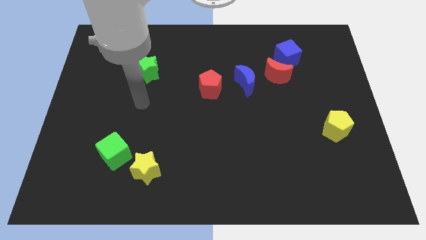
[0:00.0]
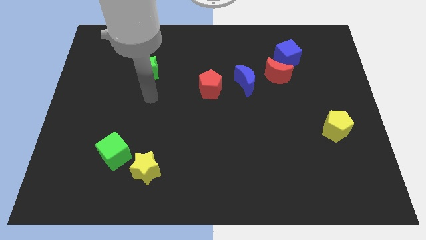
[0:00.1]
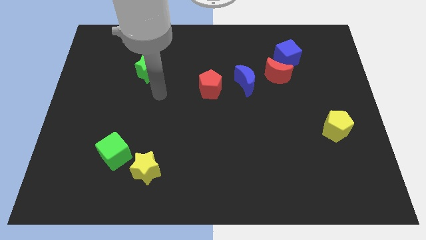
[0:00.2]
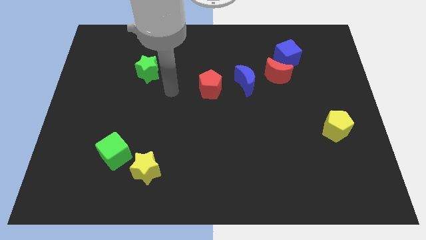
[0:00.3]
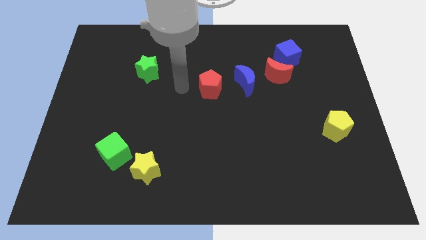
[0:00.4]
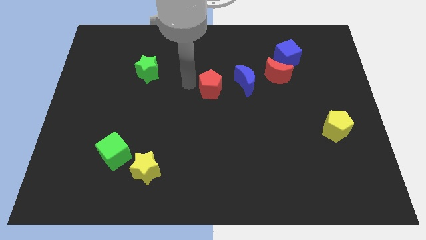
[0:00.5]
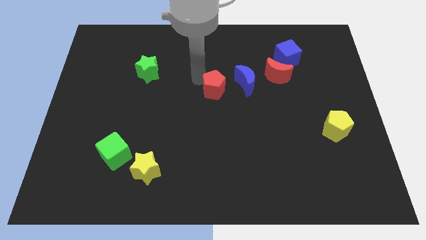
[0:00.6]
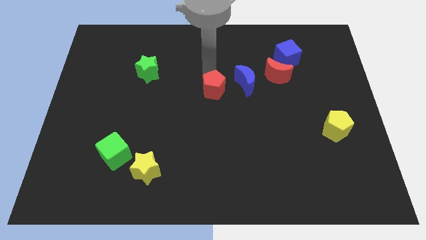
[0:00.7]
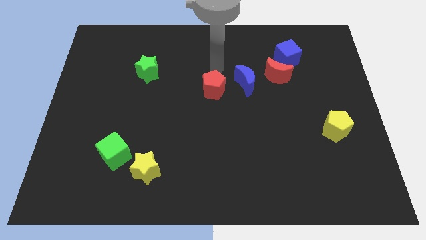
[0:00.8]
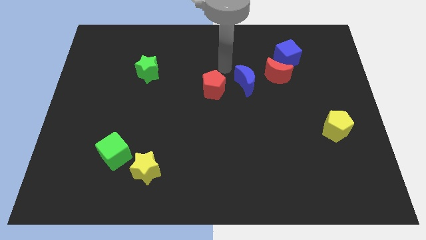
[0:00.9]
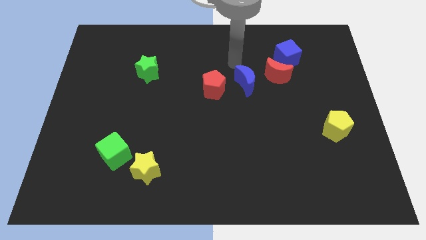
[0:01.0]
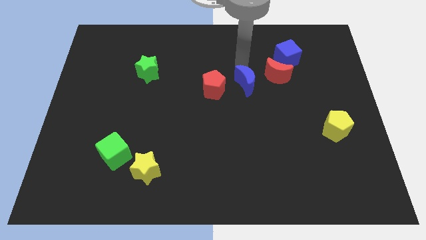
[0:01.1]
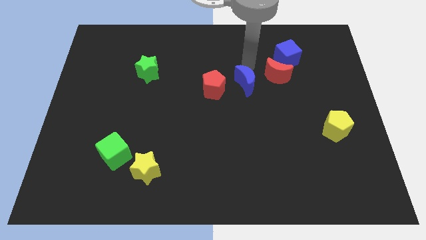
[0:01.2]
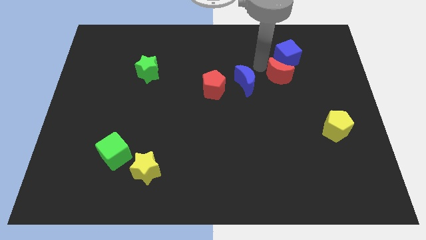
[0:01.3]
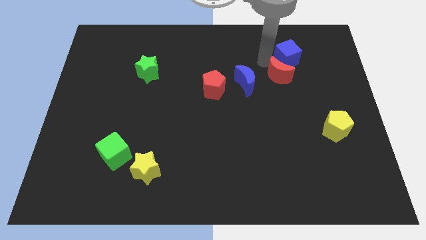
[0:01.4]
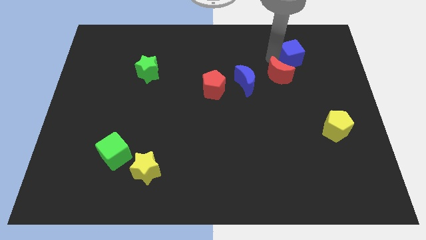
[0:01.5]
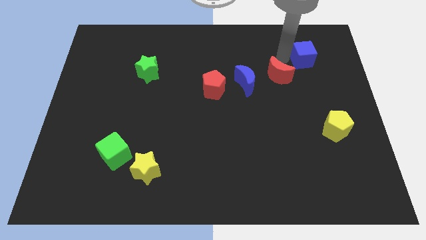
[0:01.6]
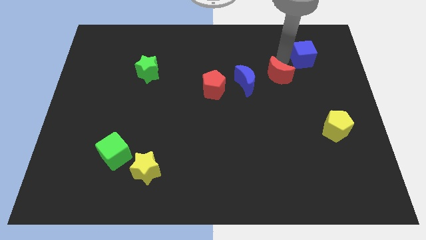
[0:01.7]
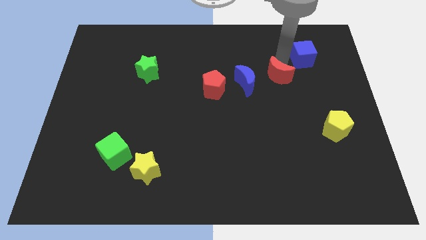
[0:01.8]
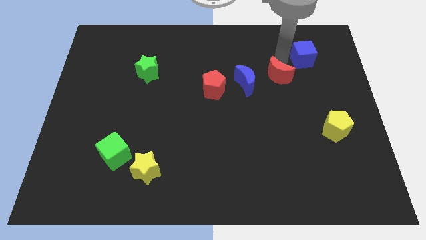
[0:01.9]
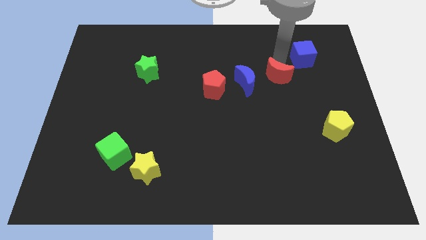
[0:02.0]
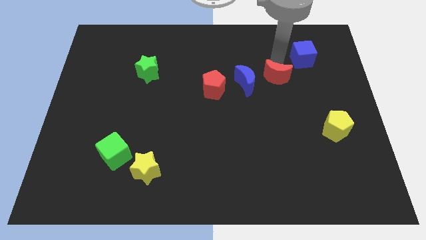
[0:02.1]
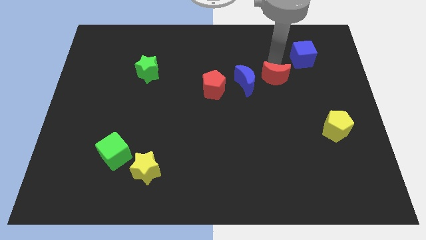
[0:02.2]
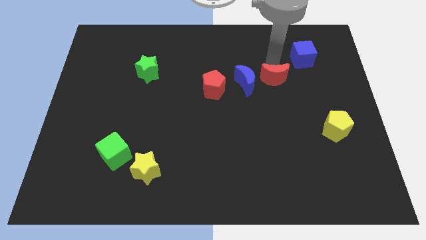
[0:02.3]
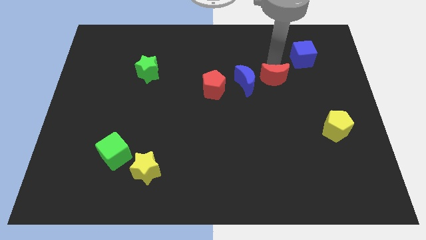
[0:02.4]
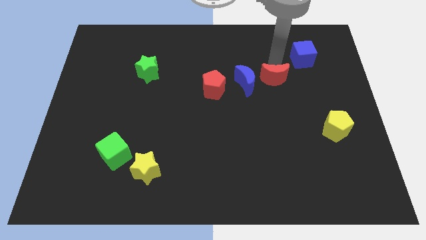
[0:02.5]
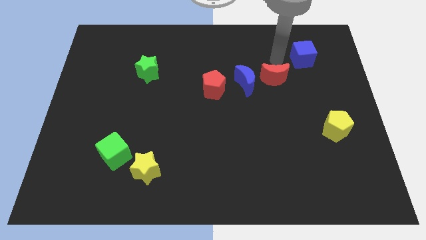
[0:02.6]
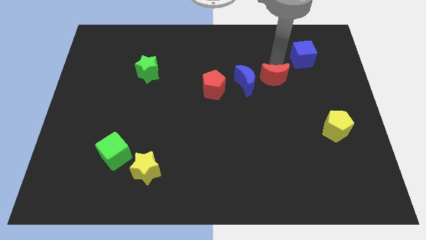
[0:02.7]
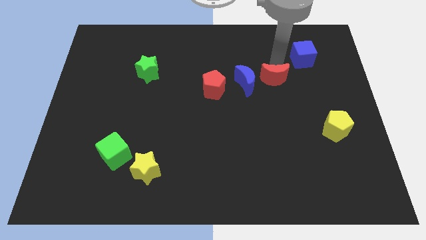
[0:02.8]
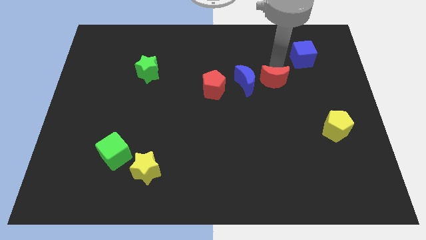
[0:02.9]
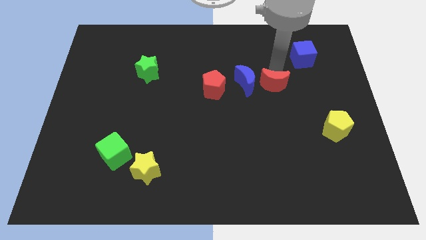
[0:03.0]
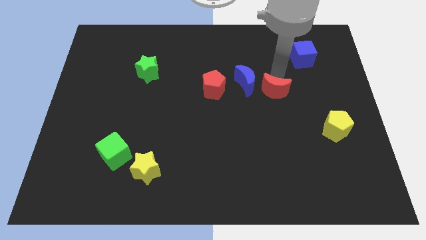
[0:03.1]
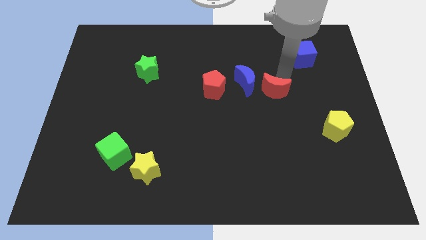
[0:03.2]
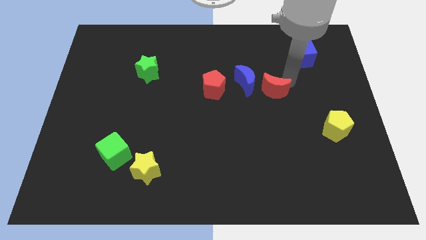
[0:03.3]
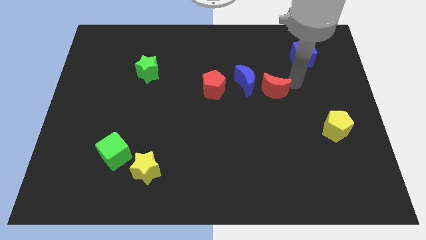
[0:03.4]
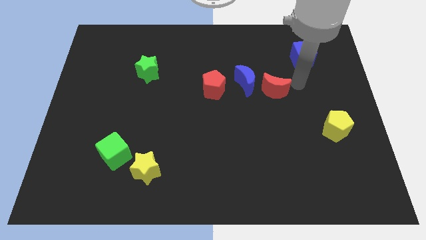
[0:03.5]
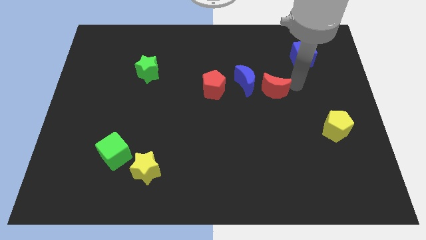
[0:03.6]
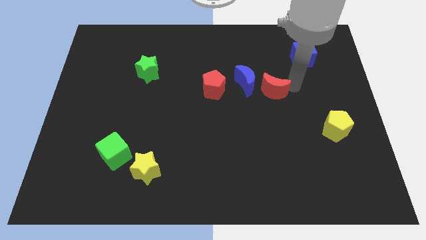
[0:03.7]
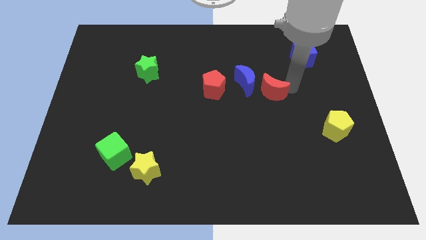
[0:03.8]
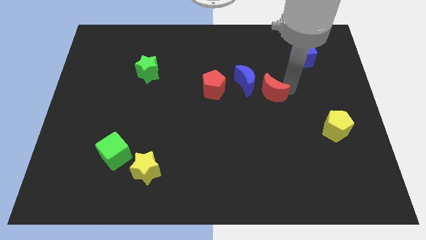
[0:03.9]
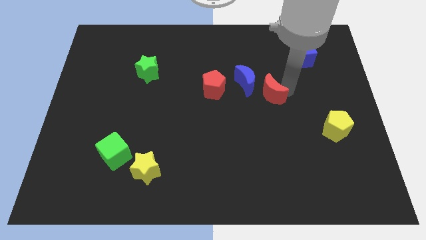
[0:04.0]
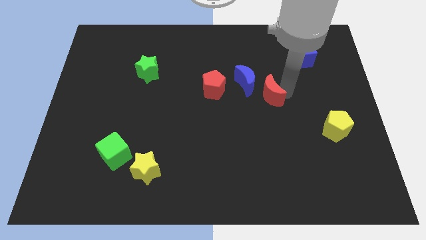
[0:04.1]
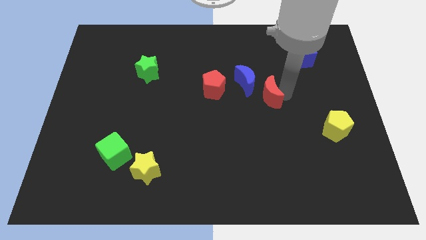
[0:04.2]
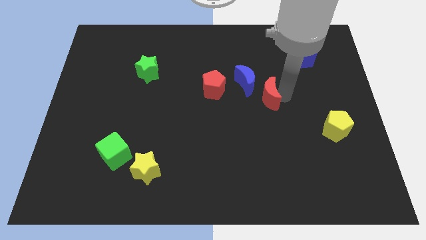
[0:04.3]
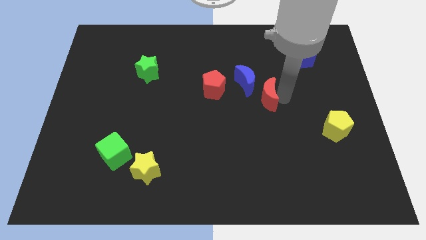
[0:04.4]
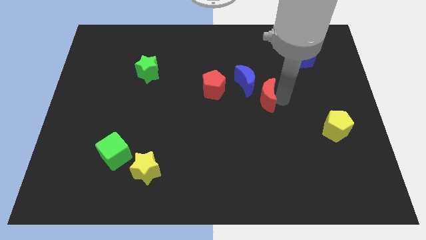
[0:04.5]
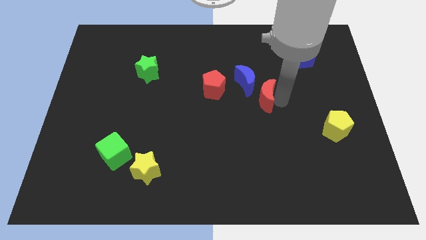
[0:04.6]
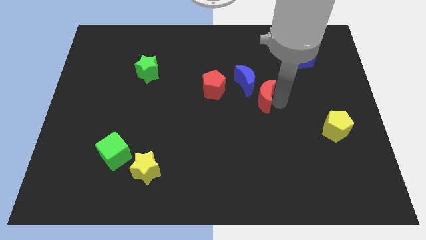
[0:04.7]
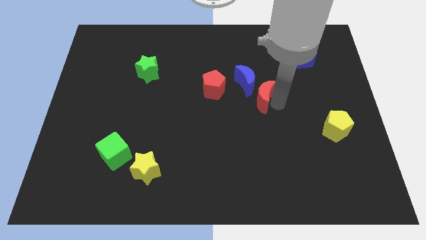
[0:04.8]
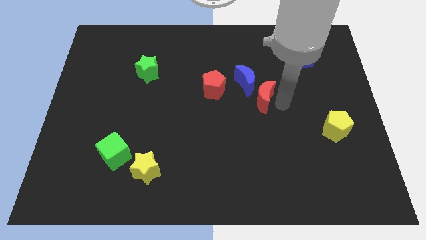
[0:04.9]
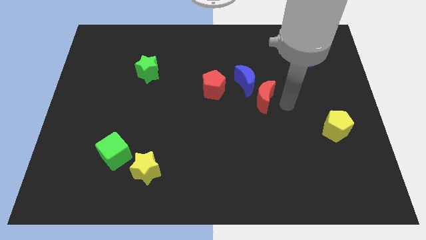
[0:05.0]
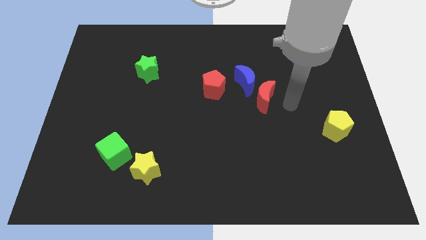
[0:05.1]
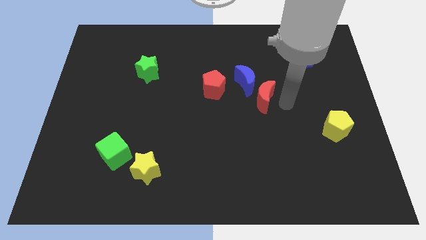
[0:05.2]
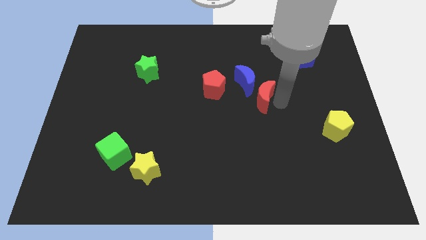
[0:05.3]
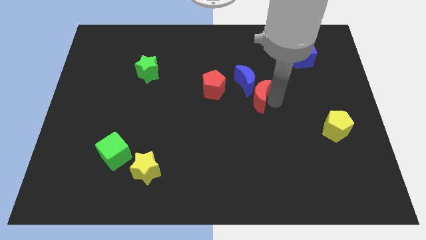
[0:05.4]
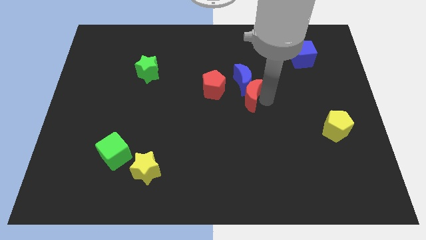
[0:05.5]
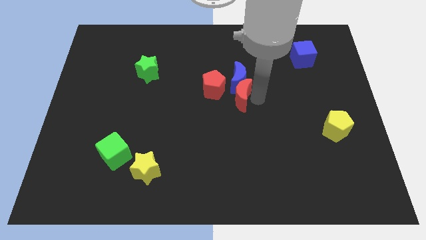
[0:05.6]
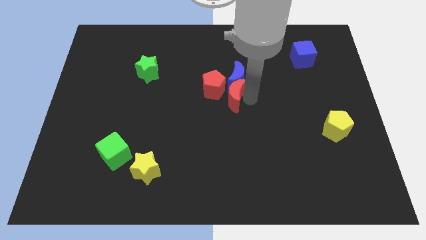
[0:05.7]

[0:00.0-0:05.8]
move the red moon to the red pentagon

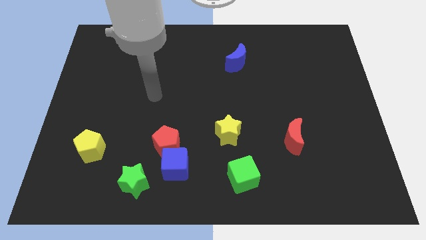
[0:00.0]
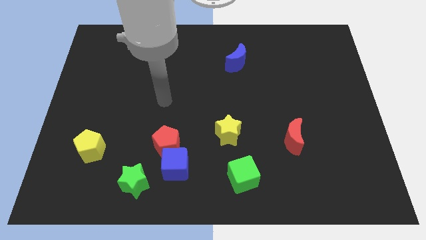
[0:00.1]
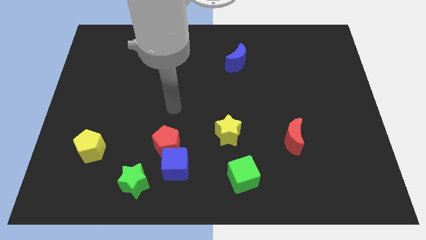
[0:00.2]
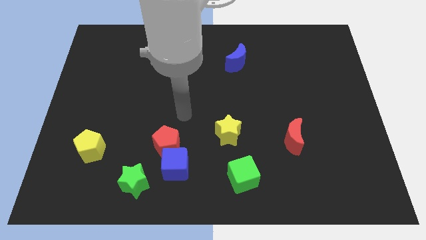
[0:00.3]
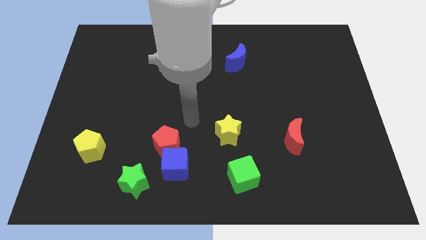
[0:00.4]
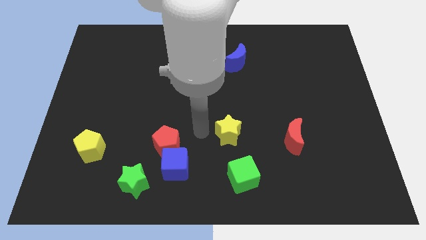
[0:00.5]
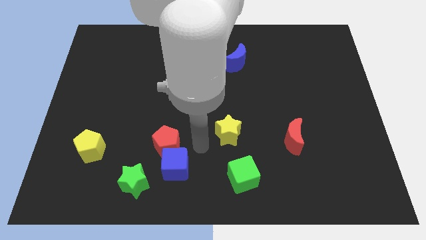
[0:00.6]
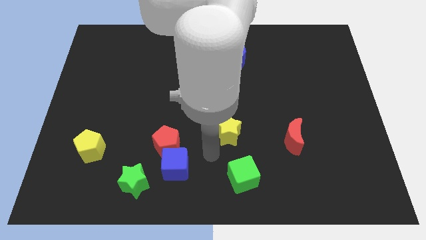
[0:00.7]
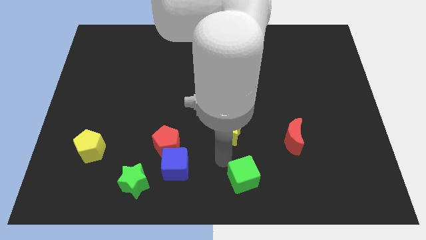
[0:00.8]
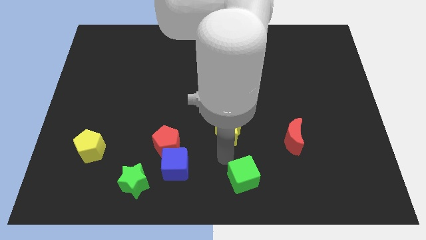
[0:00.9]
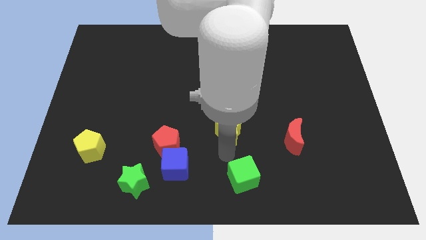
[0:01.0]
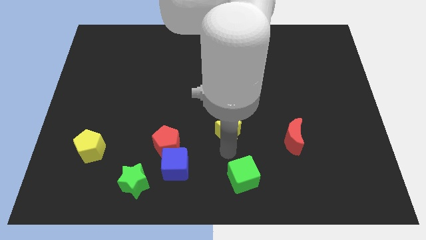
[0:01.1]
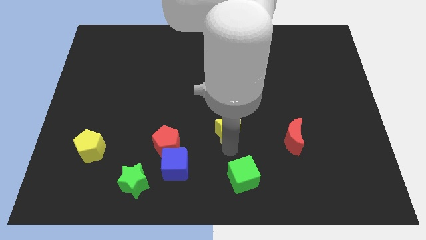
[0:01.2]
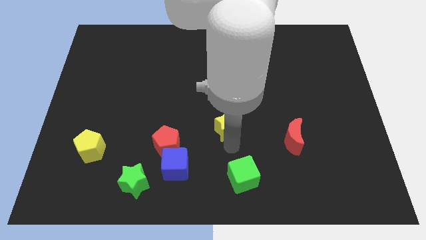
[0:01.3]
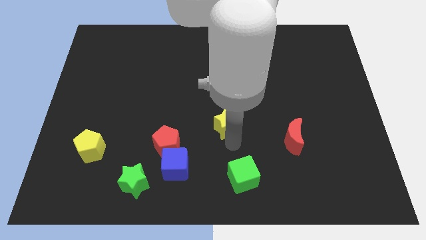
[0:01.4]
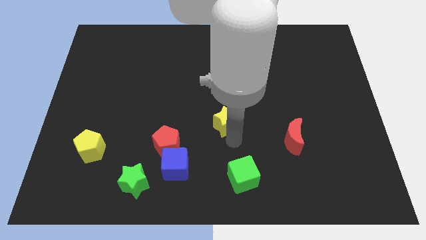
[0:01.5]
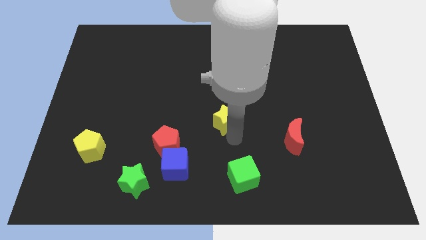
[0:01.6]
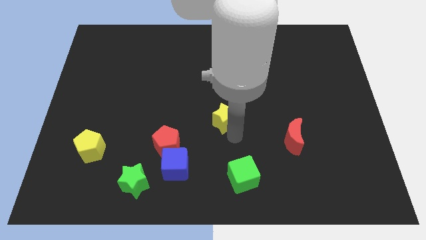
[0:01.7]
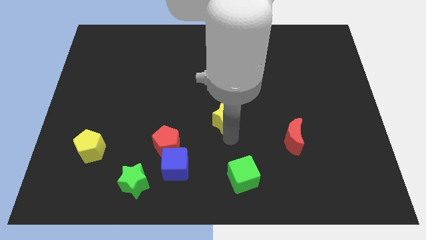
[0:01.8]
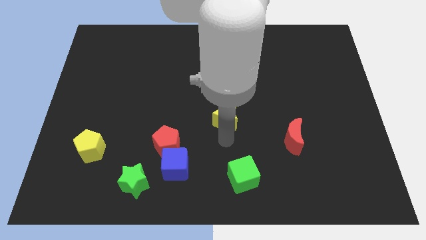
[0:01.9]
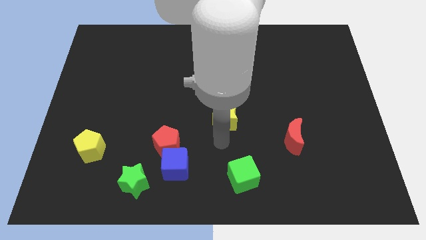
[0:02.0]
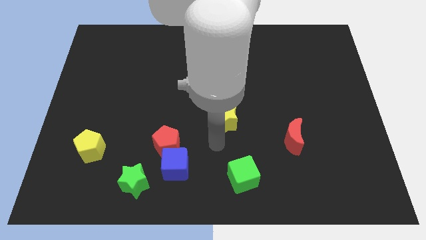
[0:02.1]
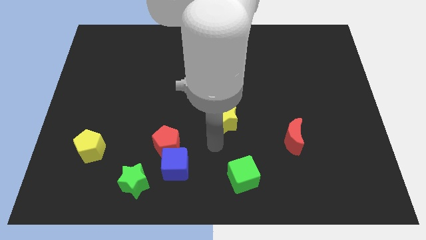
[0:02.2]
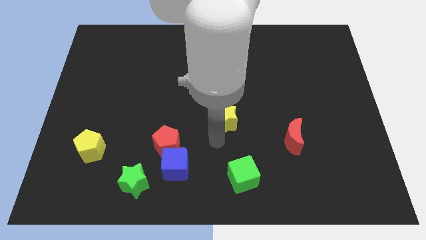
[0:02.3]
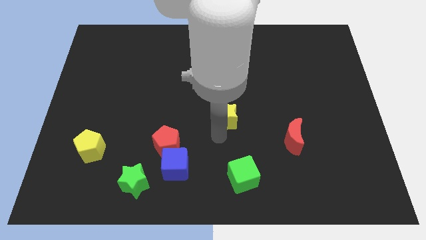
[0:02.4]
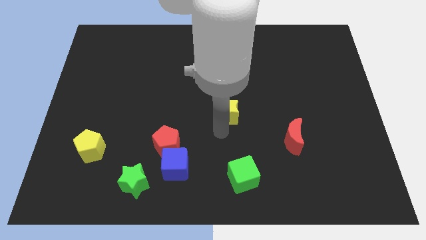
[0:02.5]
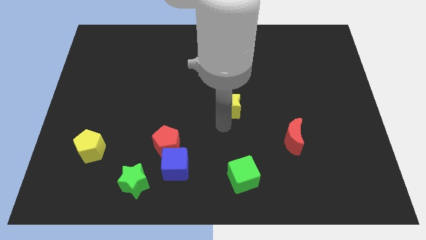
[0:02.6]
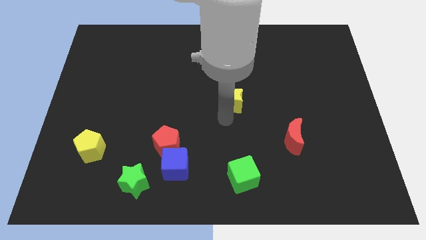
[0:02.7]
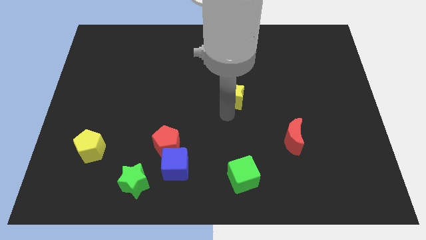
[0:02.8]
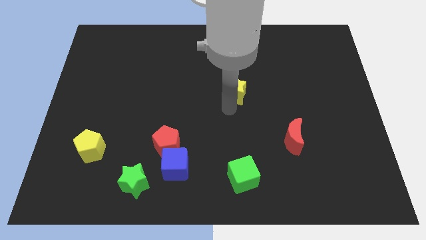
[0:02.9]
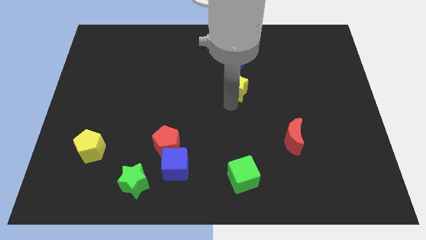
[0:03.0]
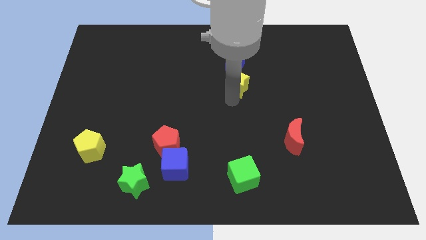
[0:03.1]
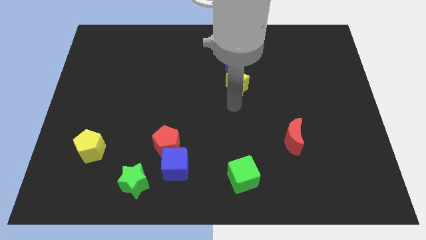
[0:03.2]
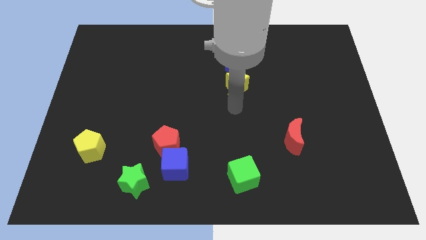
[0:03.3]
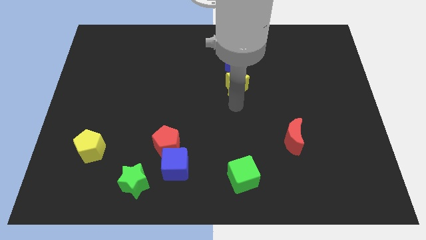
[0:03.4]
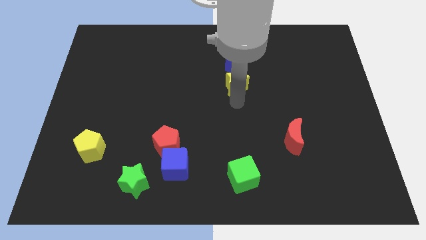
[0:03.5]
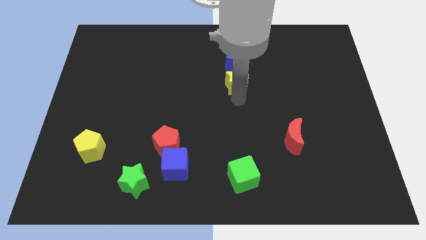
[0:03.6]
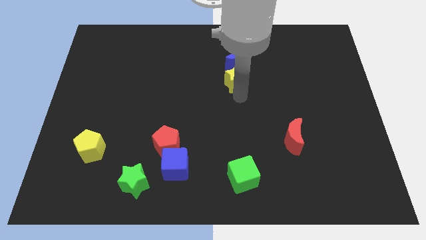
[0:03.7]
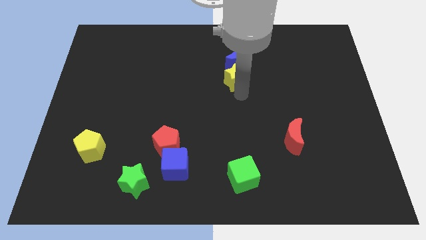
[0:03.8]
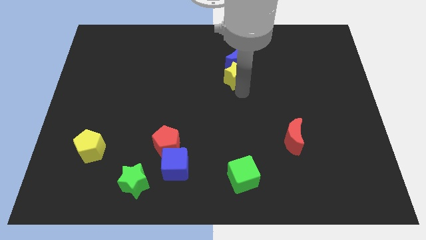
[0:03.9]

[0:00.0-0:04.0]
slide the yellow star towards the blue moon
